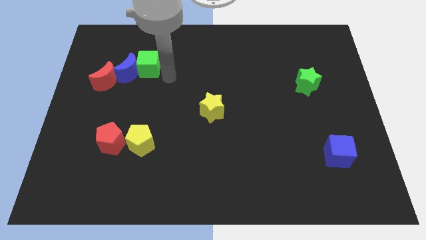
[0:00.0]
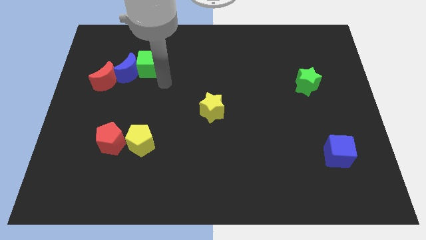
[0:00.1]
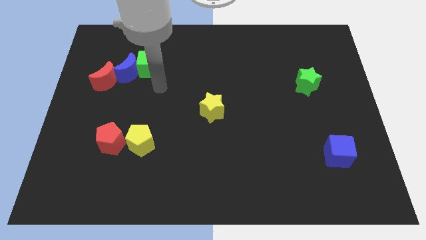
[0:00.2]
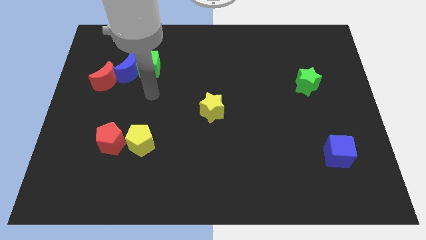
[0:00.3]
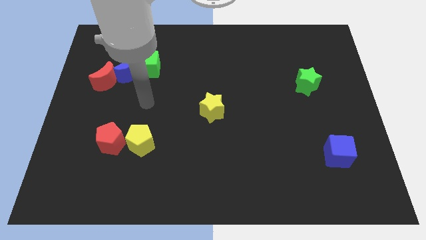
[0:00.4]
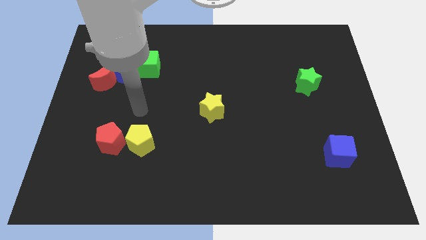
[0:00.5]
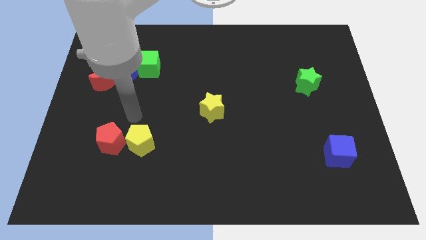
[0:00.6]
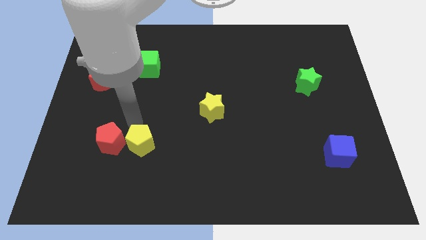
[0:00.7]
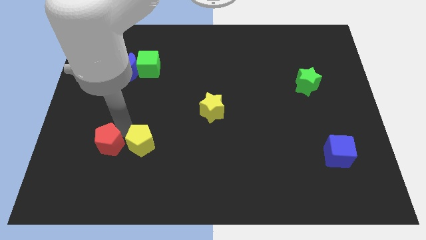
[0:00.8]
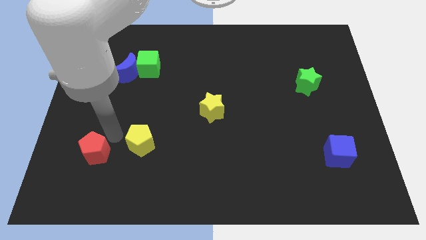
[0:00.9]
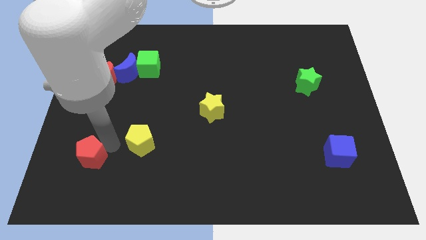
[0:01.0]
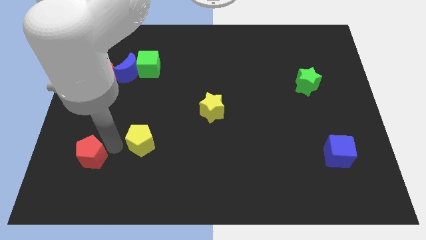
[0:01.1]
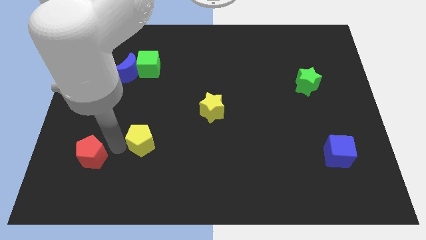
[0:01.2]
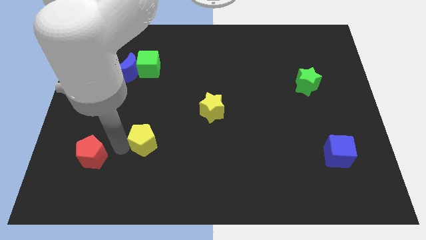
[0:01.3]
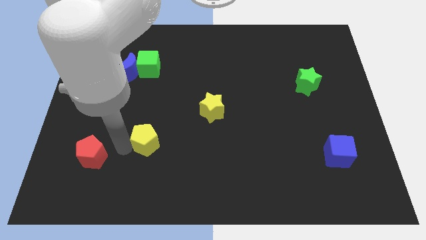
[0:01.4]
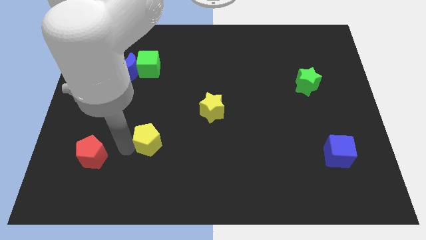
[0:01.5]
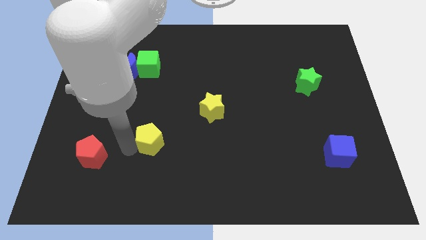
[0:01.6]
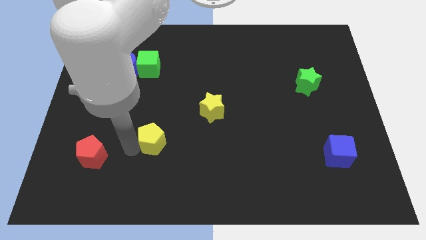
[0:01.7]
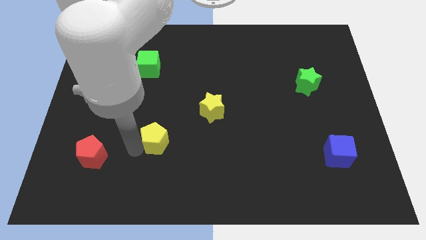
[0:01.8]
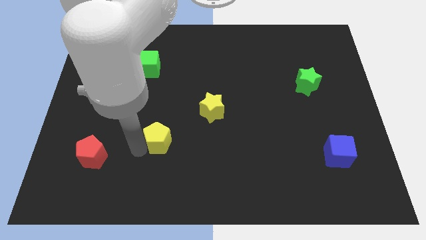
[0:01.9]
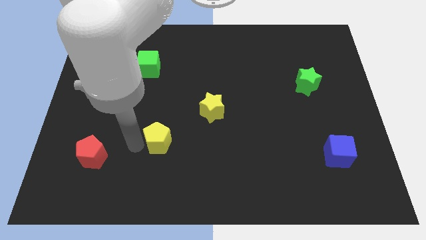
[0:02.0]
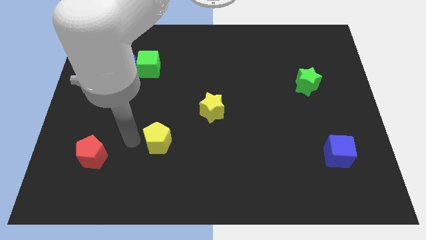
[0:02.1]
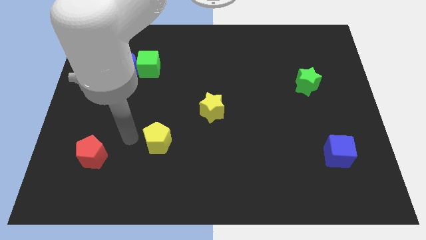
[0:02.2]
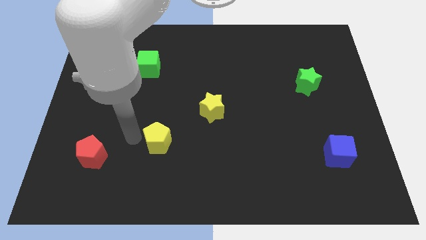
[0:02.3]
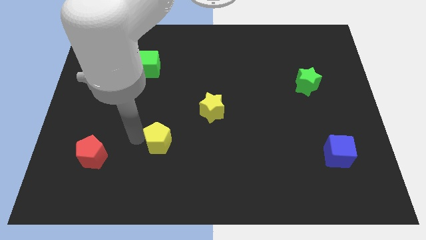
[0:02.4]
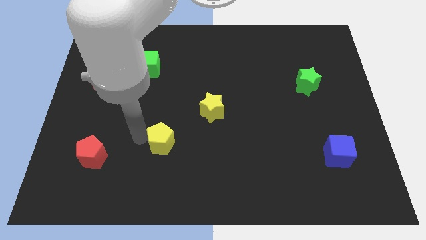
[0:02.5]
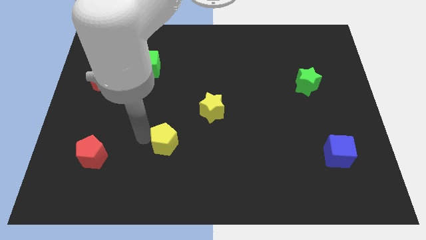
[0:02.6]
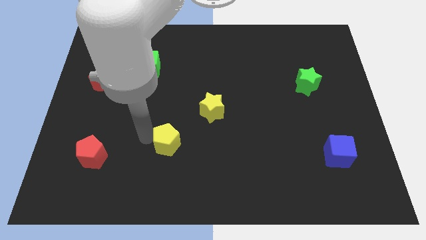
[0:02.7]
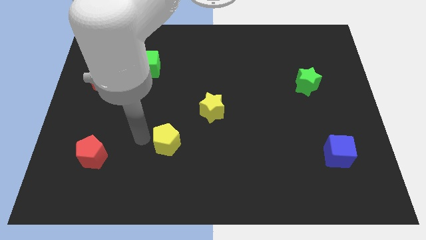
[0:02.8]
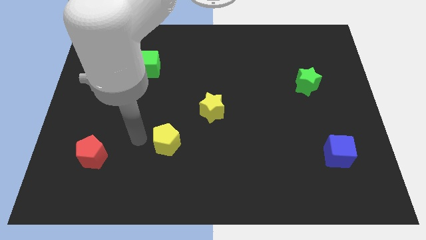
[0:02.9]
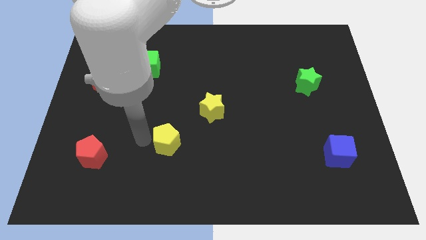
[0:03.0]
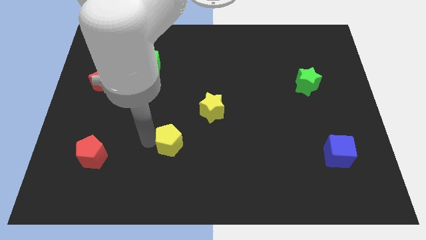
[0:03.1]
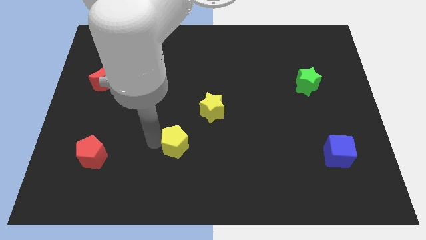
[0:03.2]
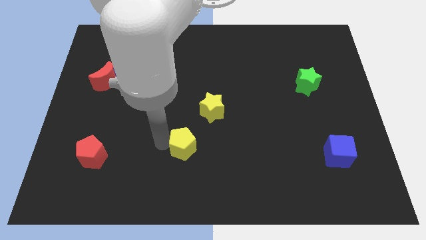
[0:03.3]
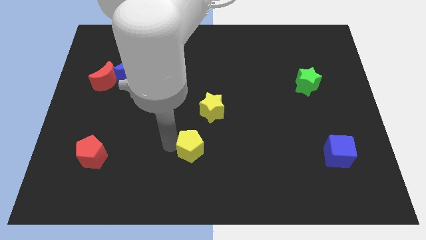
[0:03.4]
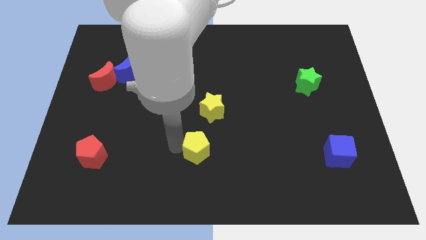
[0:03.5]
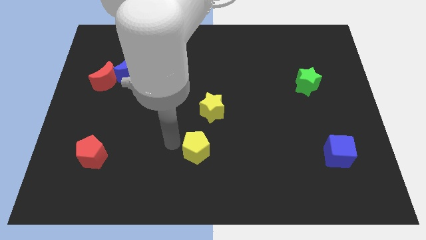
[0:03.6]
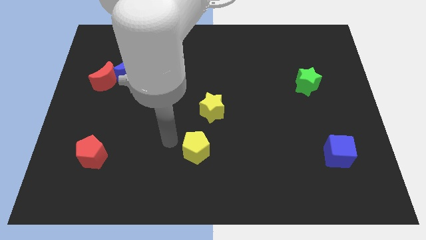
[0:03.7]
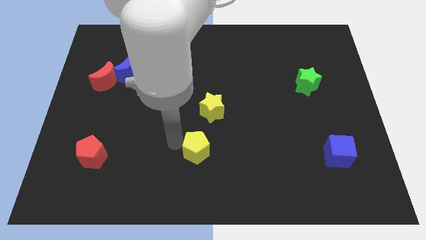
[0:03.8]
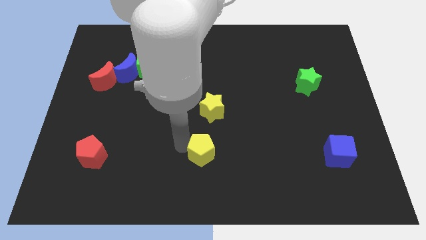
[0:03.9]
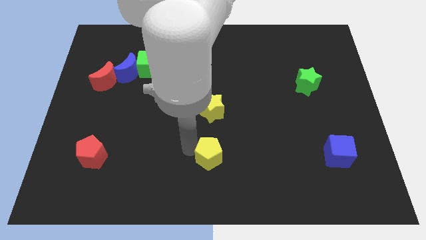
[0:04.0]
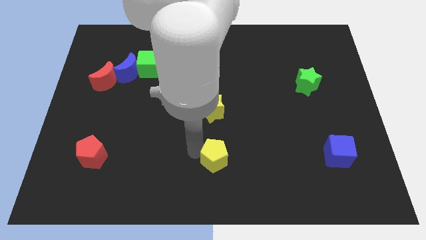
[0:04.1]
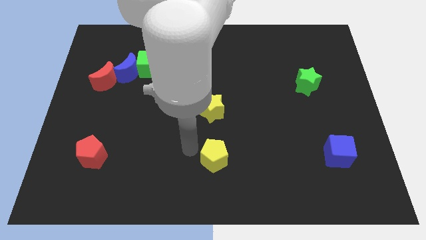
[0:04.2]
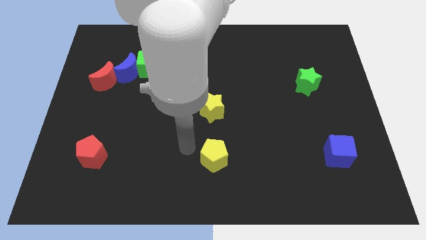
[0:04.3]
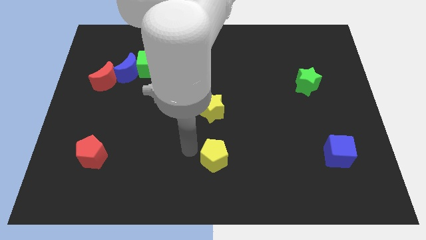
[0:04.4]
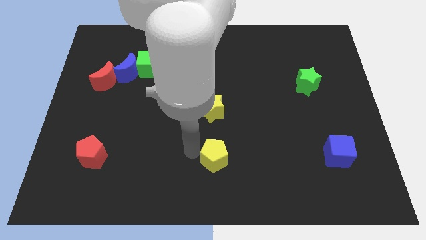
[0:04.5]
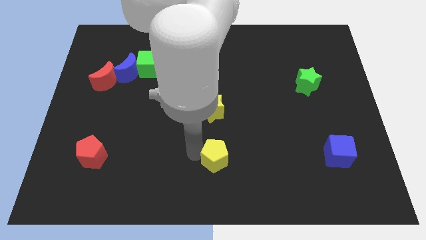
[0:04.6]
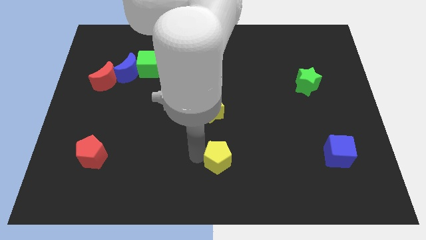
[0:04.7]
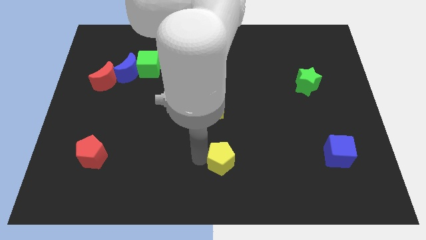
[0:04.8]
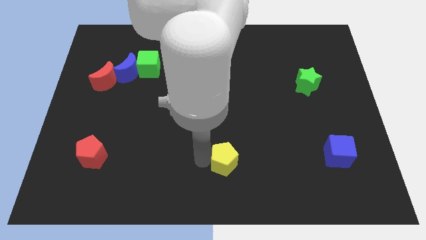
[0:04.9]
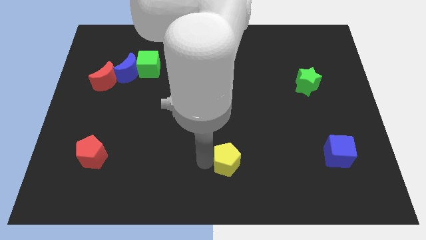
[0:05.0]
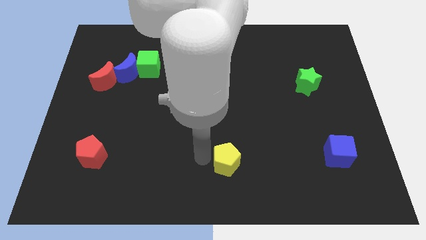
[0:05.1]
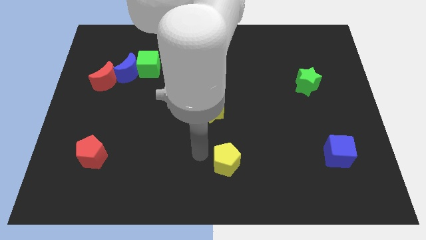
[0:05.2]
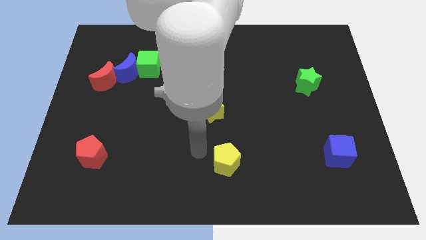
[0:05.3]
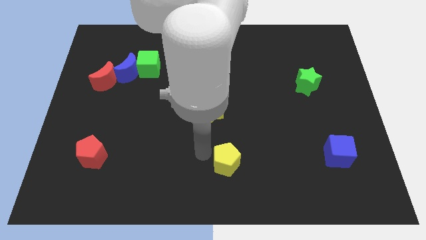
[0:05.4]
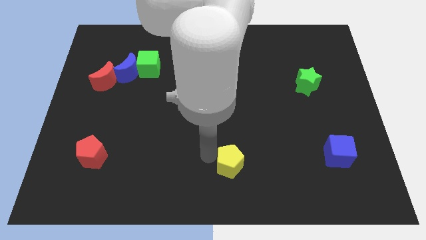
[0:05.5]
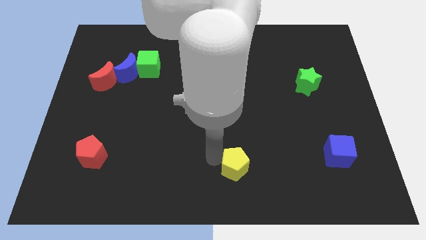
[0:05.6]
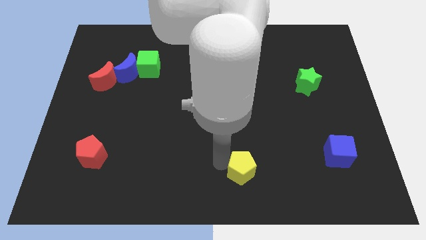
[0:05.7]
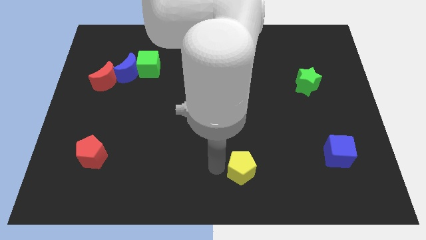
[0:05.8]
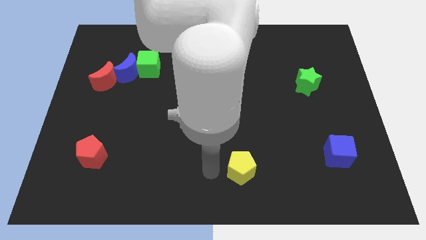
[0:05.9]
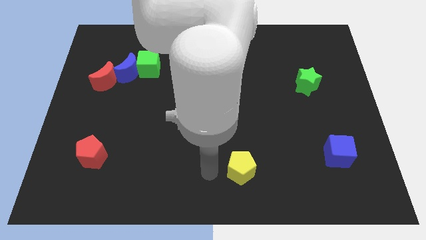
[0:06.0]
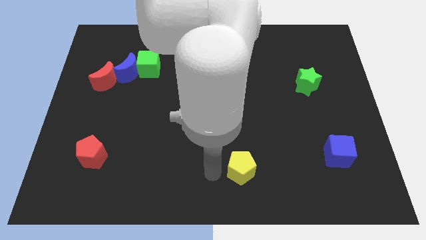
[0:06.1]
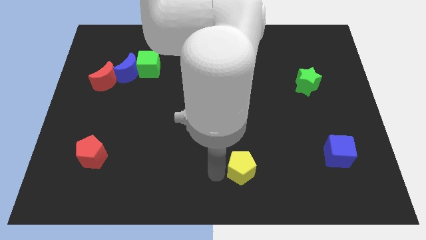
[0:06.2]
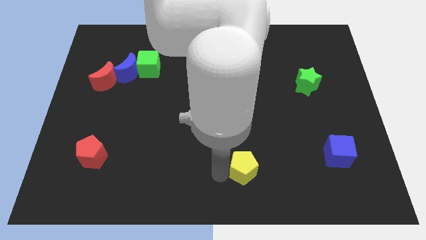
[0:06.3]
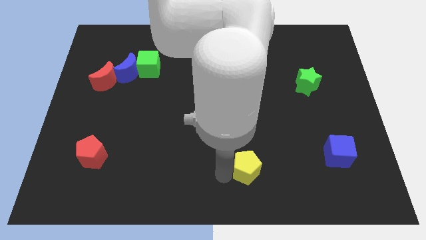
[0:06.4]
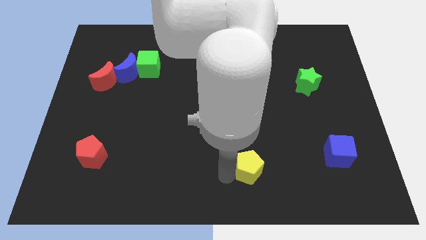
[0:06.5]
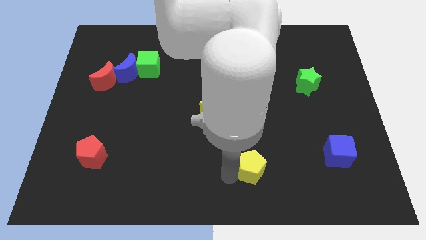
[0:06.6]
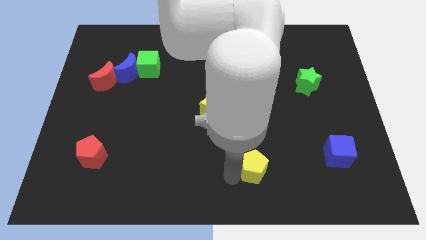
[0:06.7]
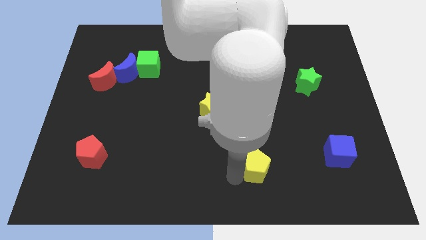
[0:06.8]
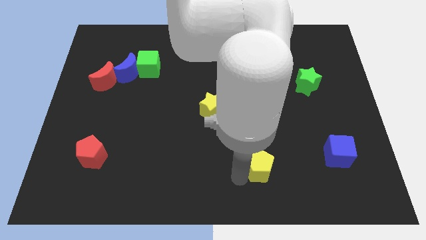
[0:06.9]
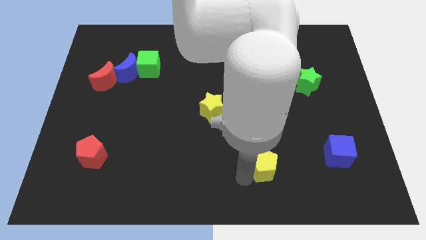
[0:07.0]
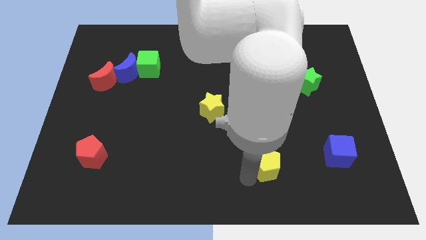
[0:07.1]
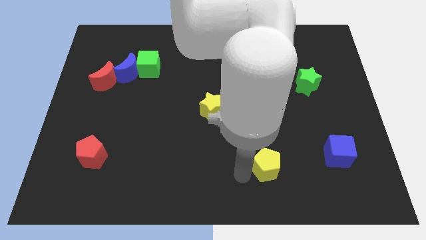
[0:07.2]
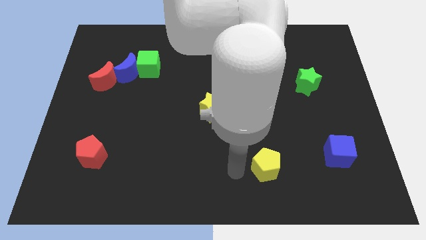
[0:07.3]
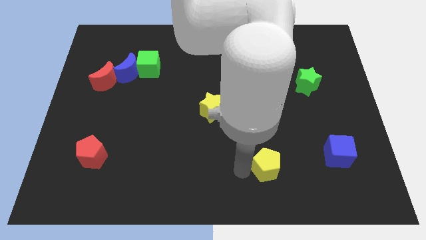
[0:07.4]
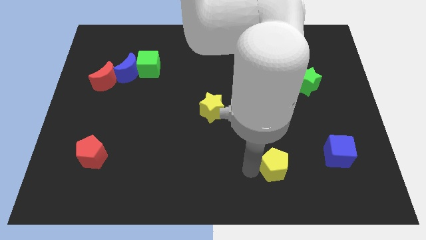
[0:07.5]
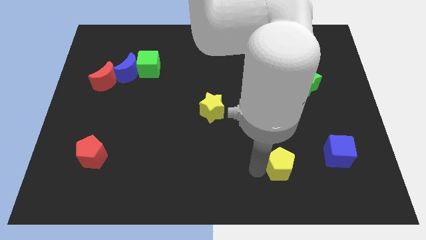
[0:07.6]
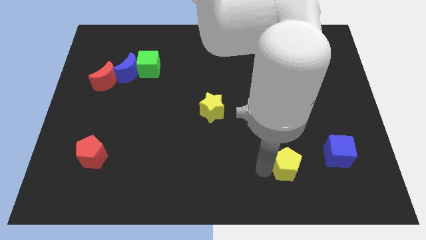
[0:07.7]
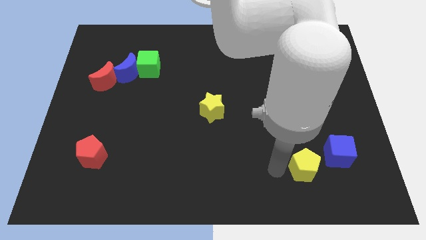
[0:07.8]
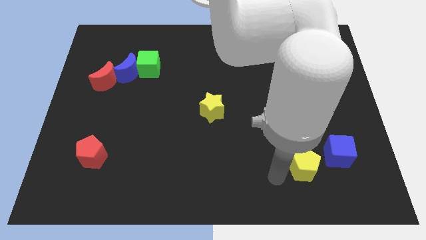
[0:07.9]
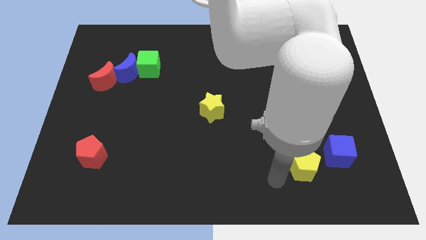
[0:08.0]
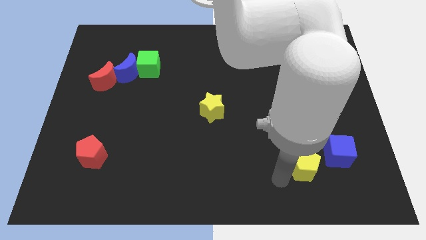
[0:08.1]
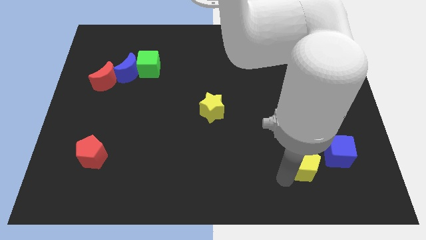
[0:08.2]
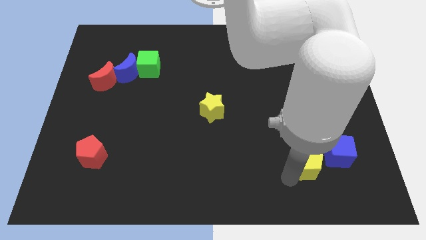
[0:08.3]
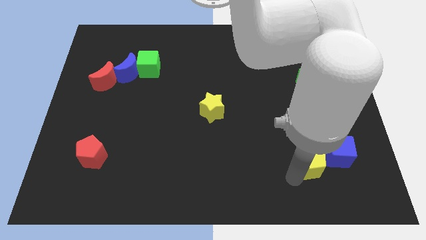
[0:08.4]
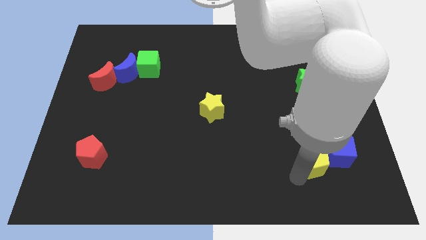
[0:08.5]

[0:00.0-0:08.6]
slide the yellow pentagon close to the blue cube
